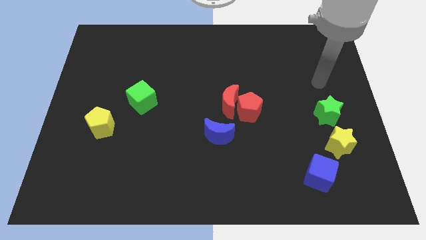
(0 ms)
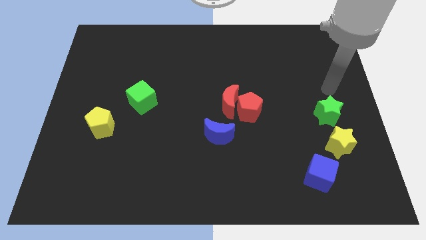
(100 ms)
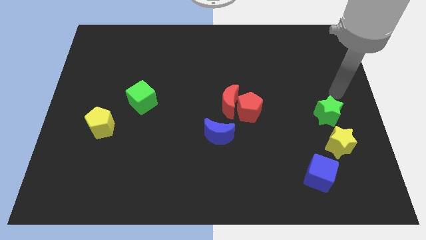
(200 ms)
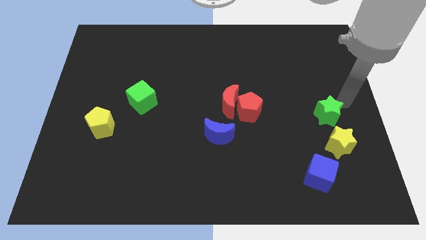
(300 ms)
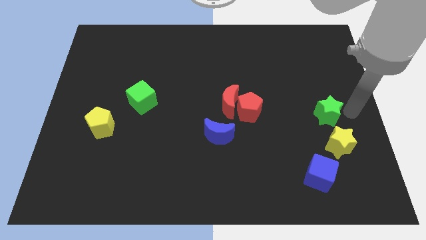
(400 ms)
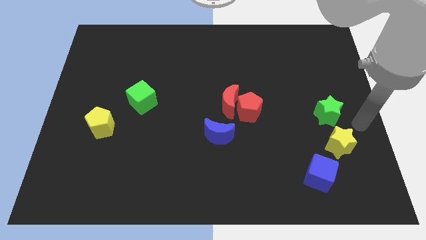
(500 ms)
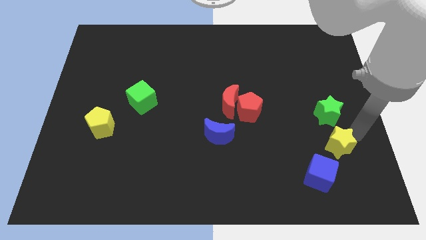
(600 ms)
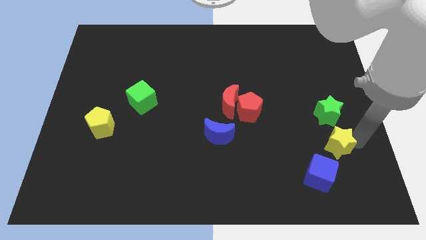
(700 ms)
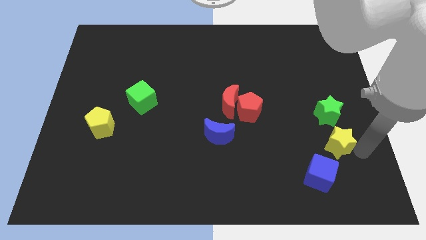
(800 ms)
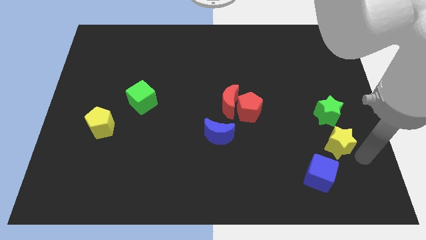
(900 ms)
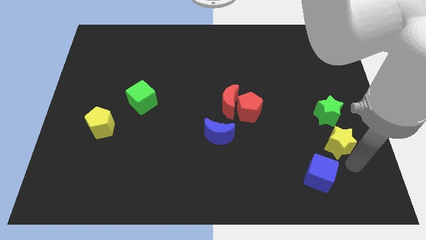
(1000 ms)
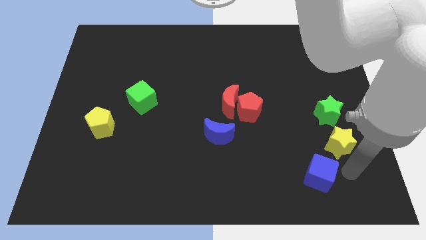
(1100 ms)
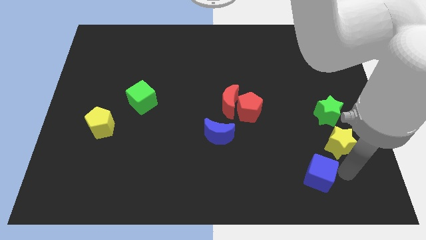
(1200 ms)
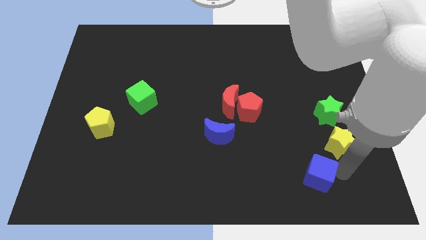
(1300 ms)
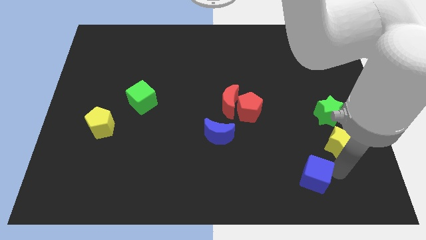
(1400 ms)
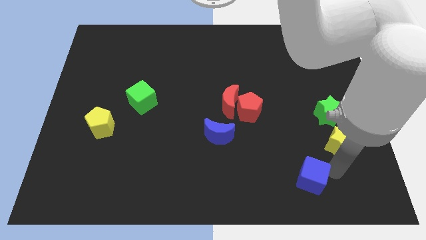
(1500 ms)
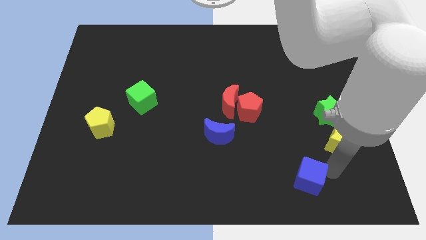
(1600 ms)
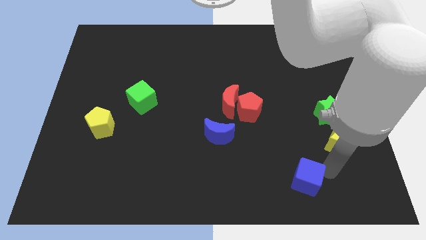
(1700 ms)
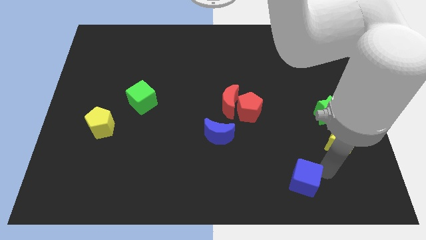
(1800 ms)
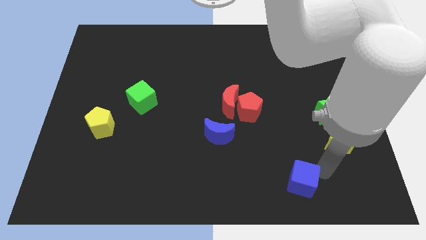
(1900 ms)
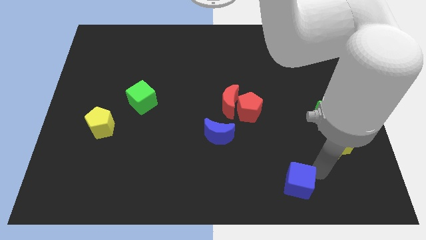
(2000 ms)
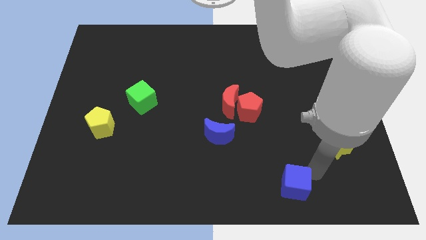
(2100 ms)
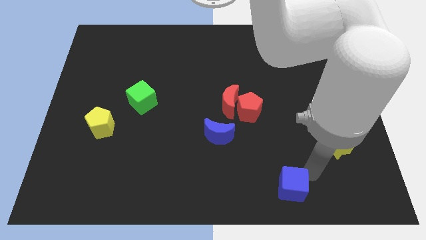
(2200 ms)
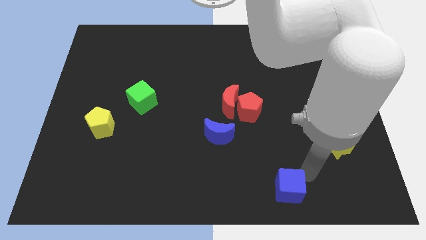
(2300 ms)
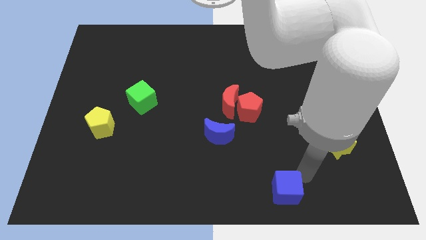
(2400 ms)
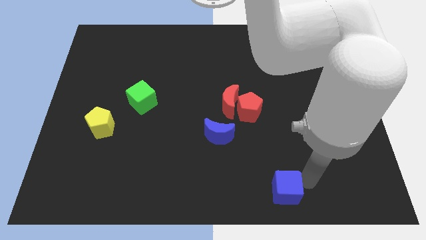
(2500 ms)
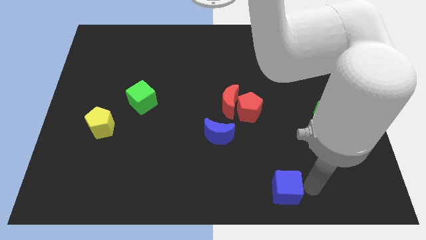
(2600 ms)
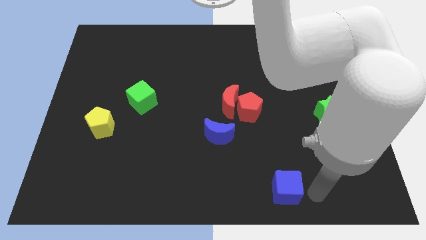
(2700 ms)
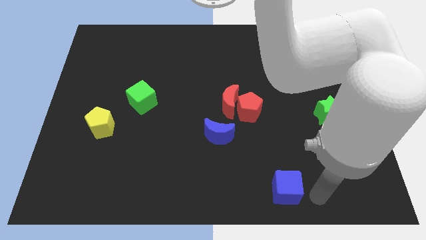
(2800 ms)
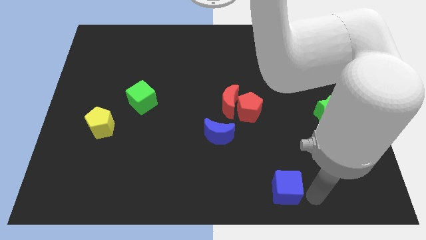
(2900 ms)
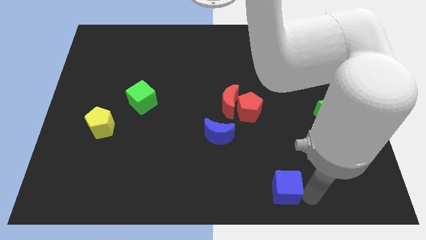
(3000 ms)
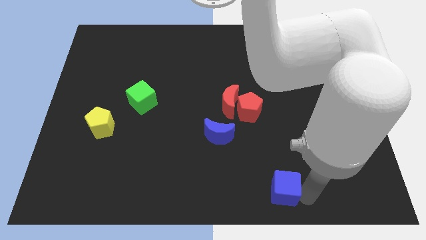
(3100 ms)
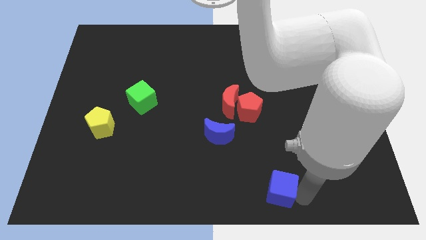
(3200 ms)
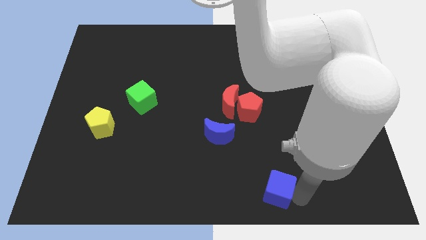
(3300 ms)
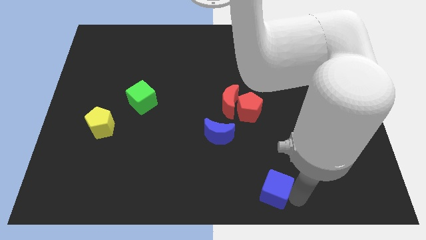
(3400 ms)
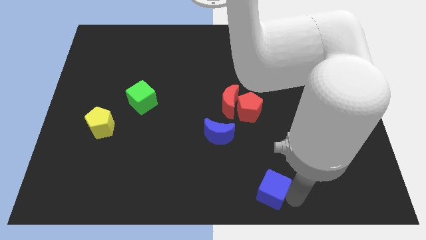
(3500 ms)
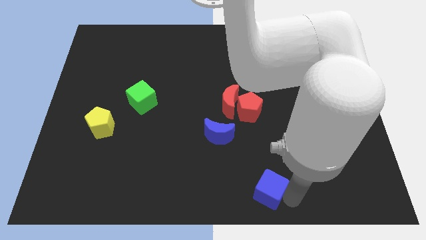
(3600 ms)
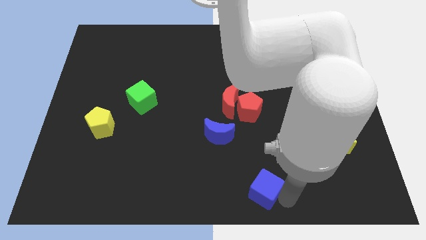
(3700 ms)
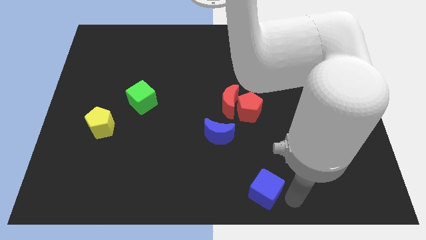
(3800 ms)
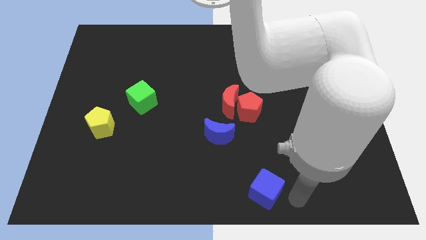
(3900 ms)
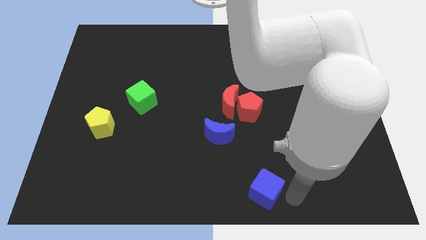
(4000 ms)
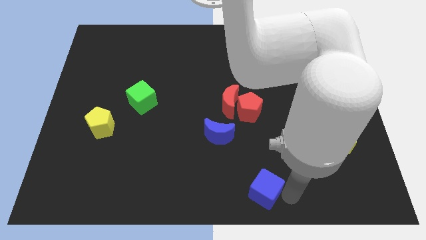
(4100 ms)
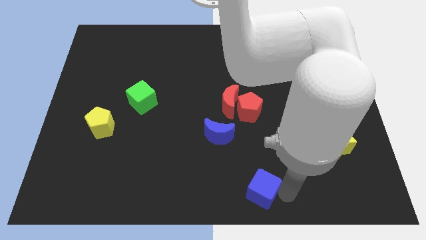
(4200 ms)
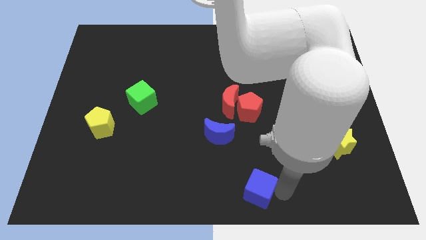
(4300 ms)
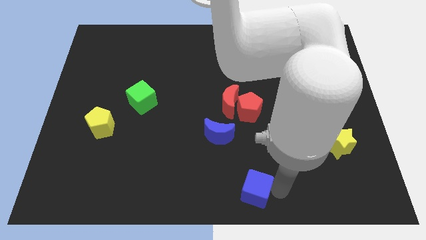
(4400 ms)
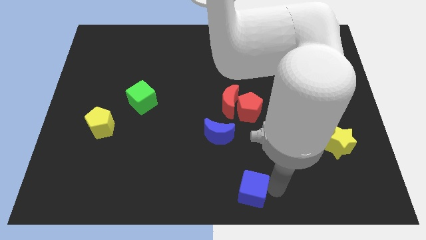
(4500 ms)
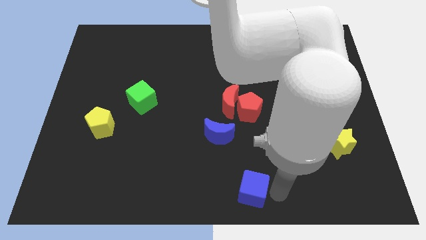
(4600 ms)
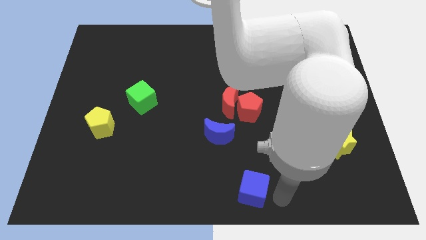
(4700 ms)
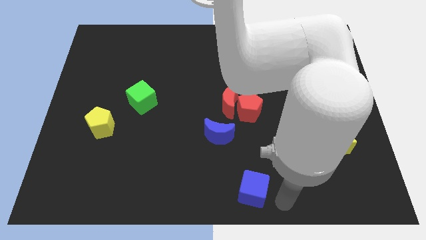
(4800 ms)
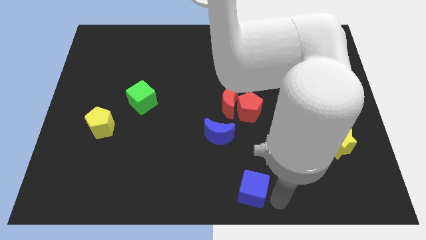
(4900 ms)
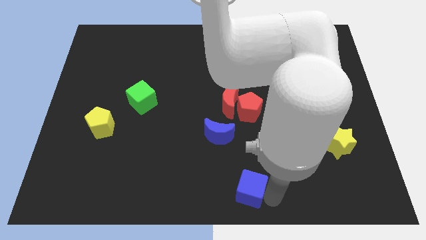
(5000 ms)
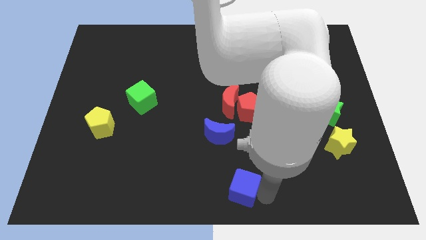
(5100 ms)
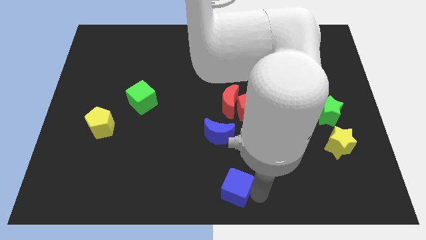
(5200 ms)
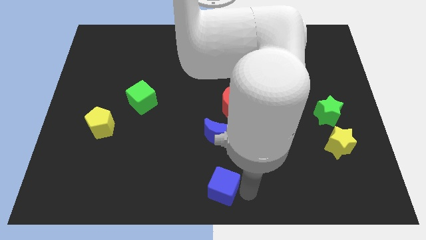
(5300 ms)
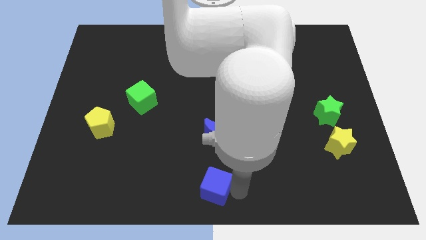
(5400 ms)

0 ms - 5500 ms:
slide the blue cube left

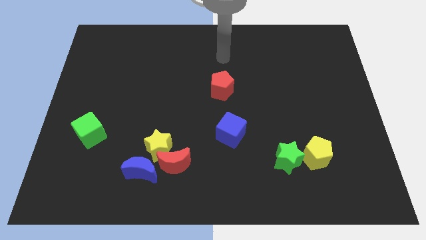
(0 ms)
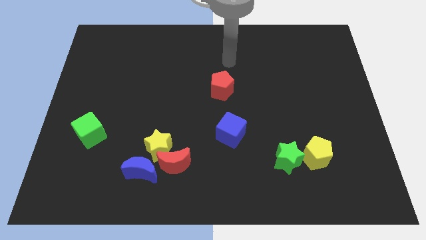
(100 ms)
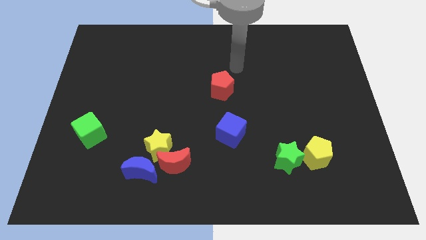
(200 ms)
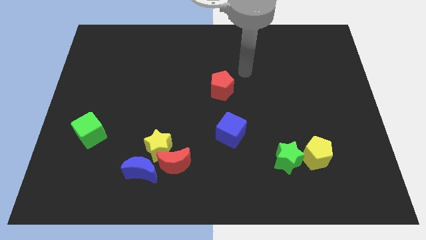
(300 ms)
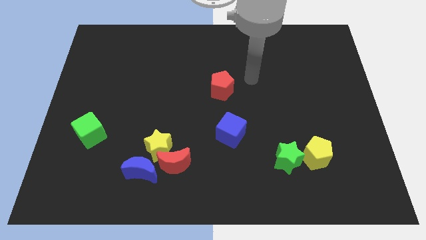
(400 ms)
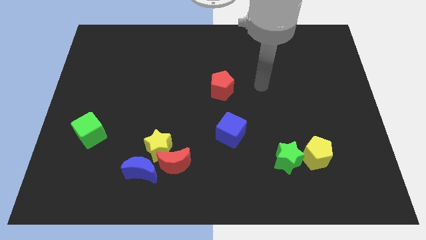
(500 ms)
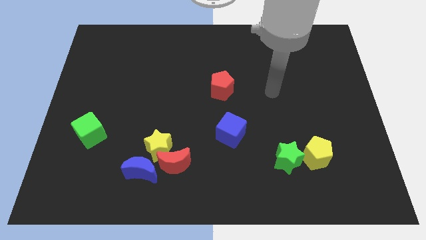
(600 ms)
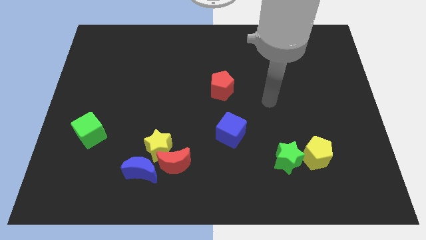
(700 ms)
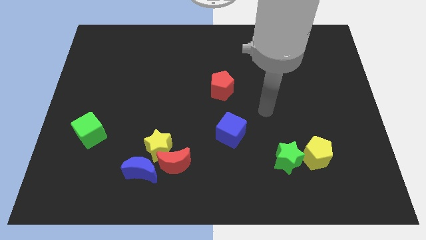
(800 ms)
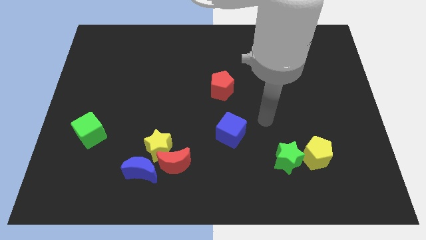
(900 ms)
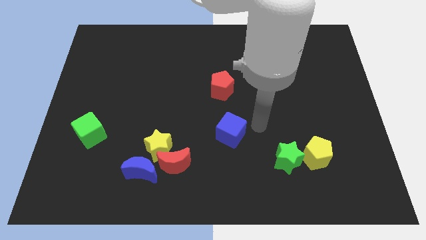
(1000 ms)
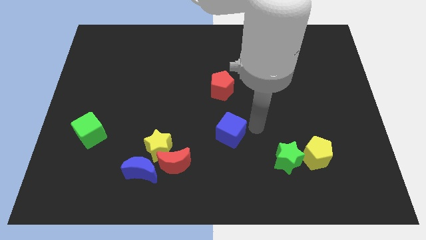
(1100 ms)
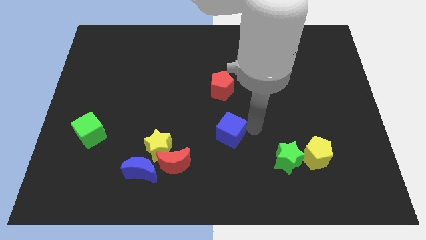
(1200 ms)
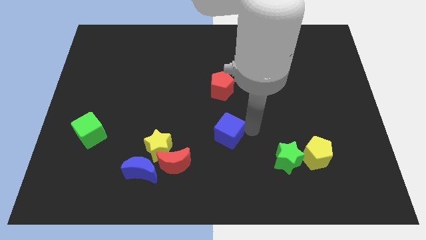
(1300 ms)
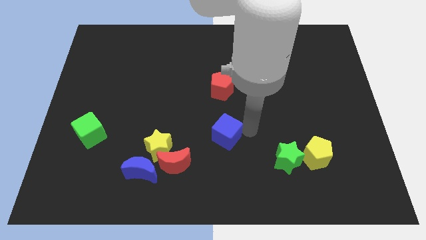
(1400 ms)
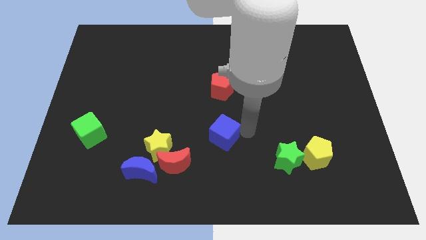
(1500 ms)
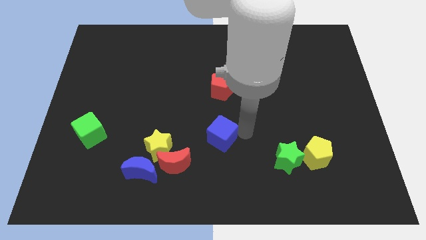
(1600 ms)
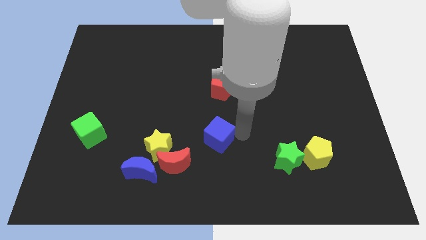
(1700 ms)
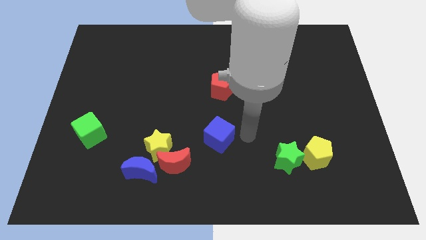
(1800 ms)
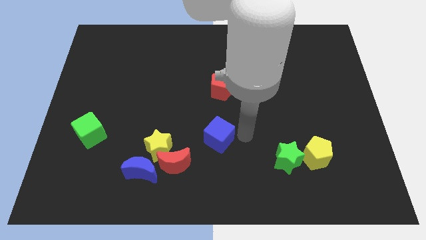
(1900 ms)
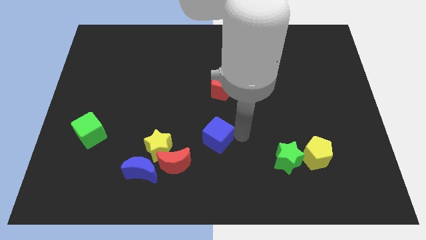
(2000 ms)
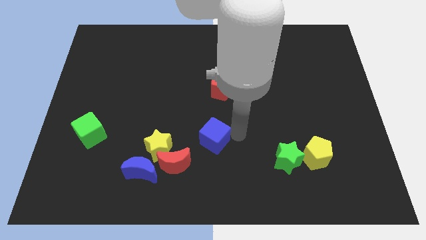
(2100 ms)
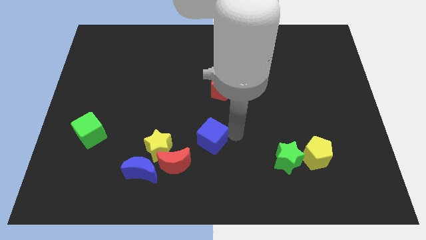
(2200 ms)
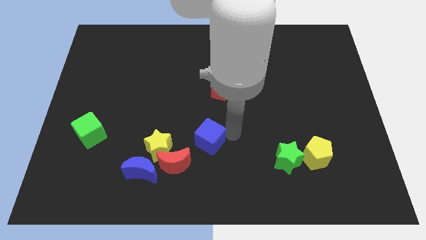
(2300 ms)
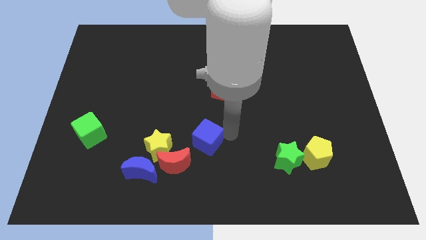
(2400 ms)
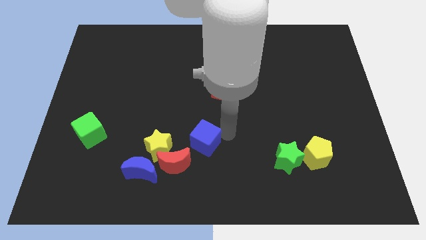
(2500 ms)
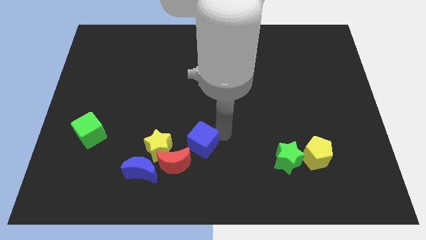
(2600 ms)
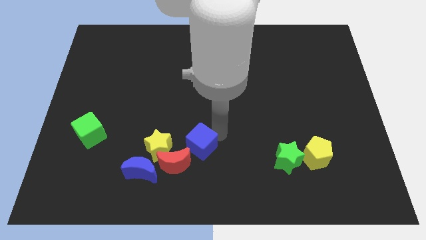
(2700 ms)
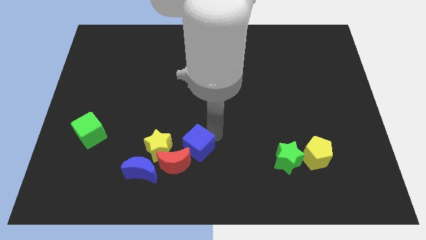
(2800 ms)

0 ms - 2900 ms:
slightly slide the blue cube left
